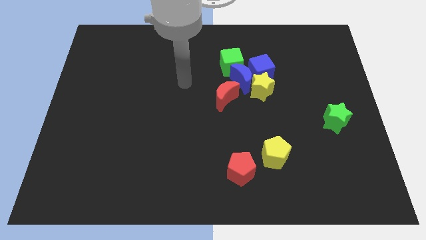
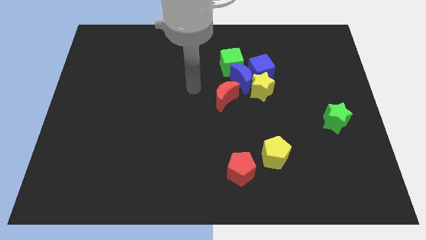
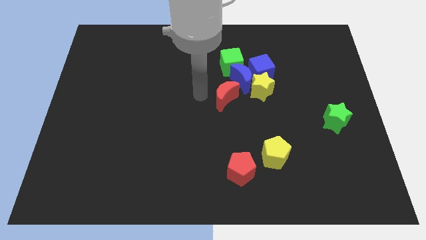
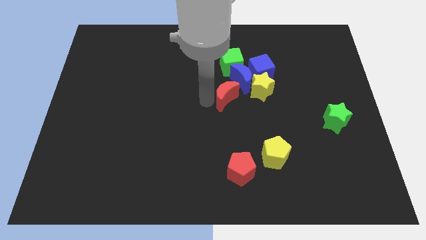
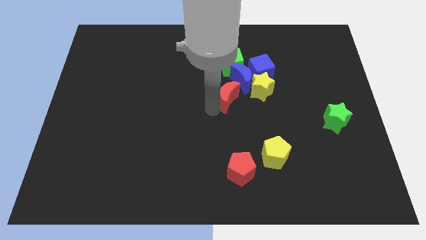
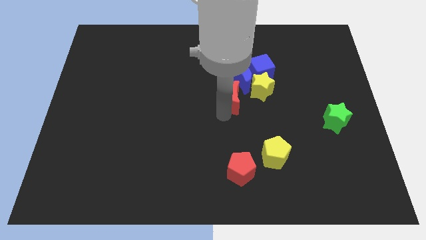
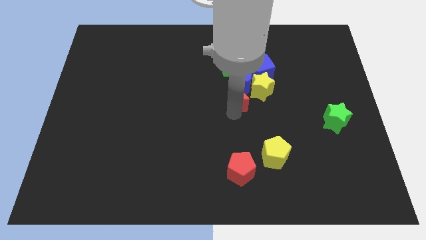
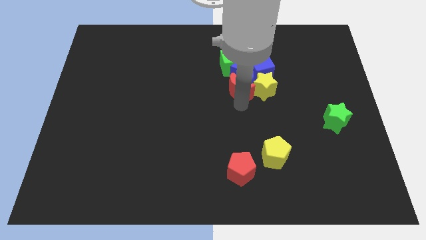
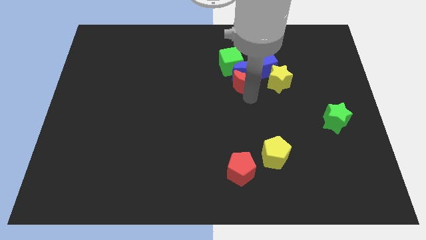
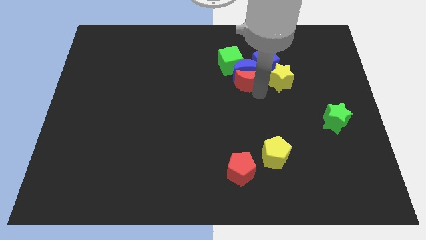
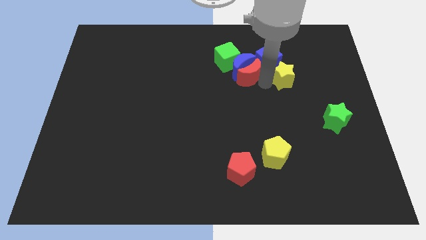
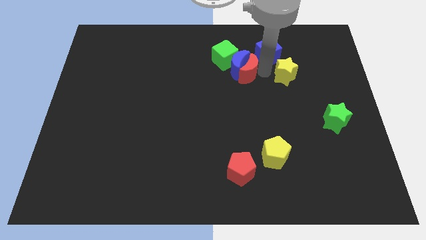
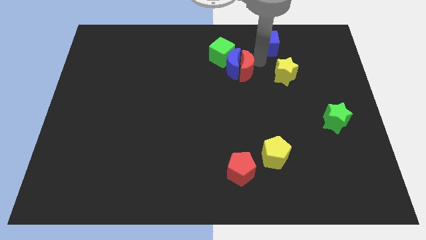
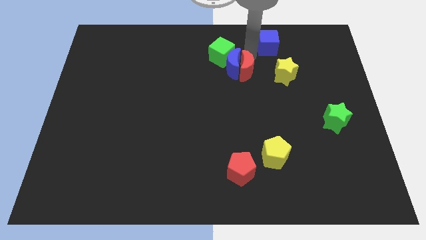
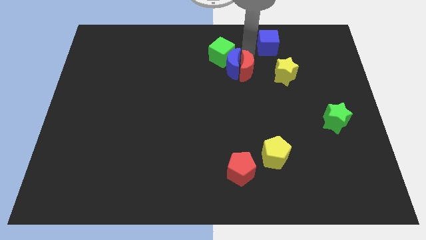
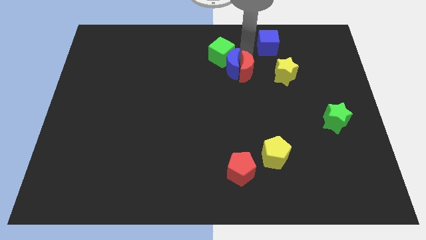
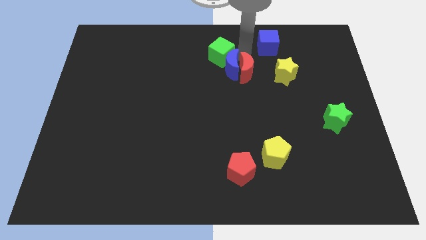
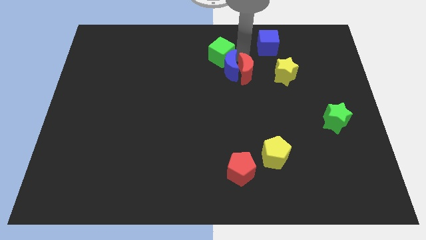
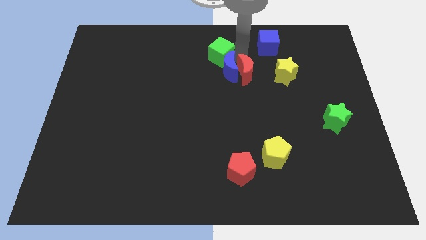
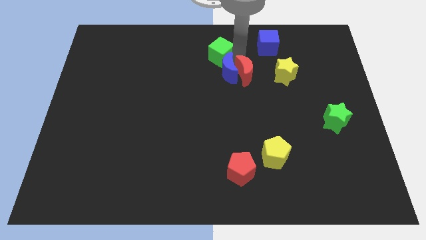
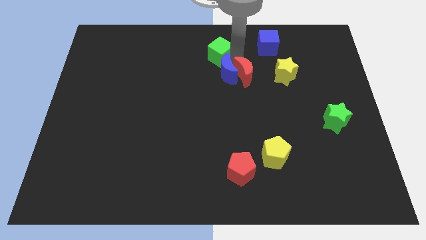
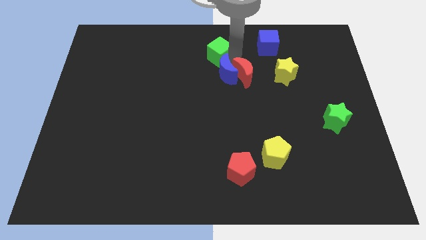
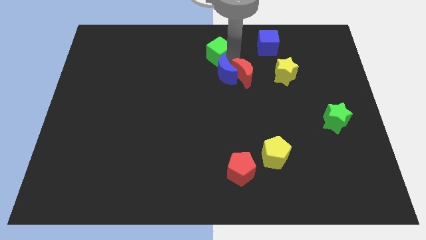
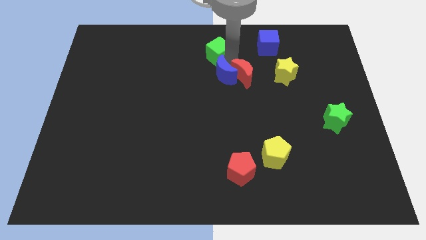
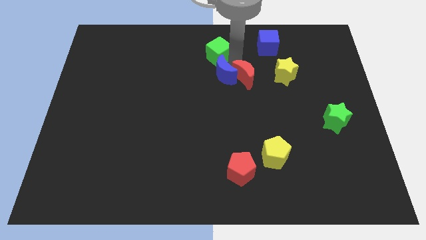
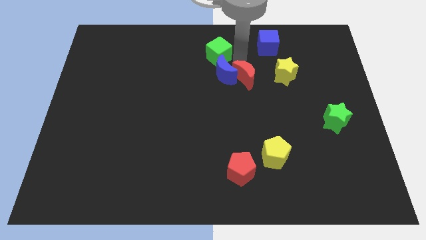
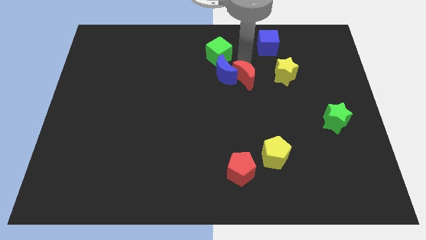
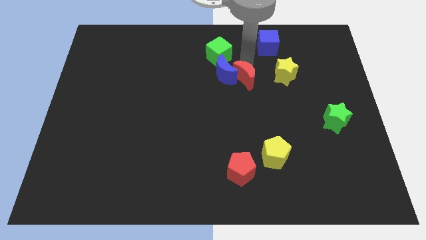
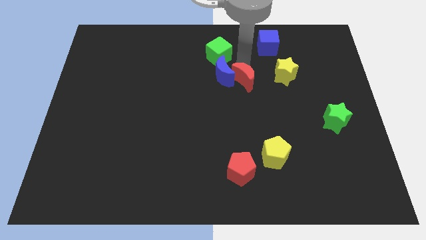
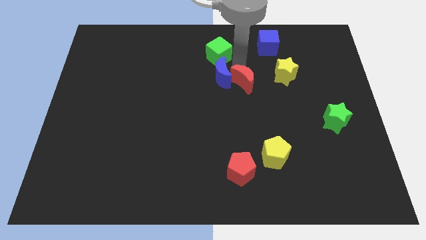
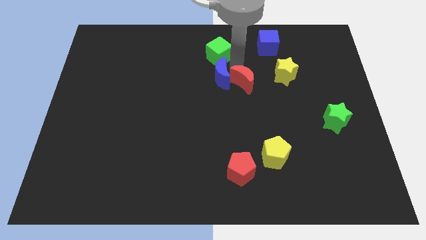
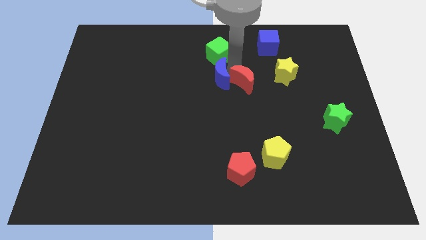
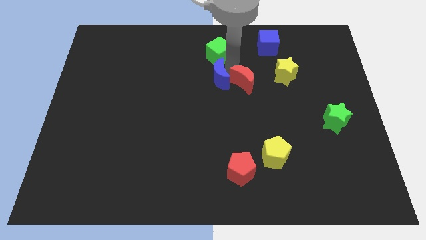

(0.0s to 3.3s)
move the blue moon away from the clump

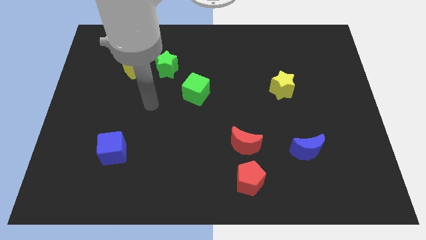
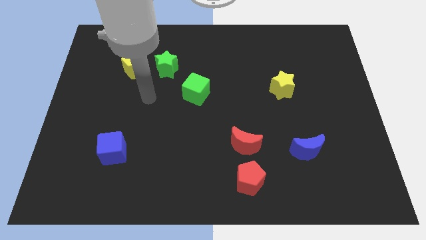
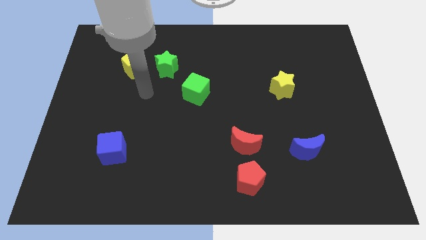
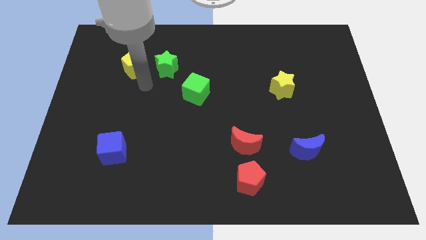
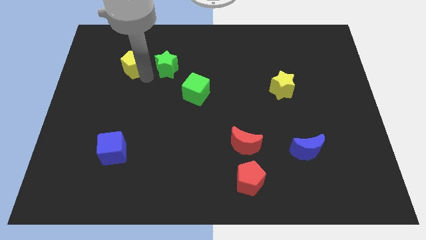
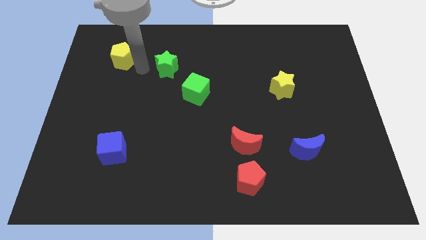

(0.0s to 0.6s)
pull the green star apart from the yellow pentagon

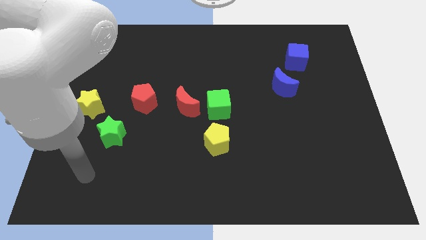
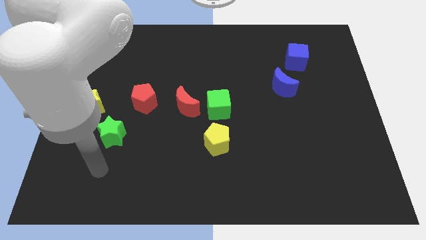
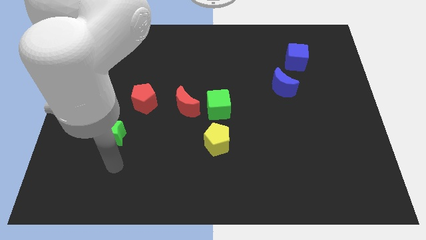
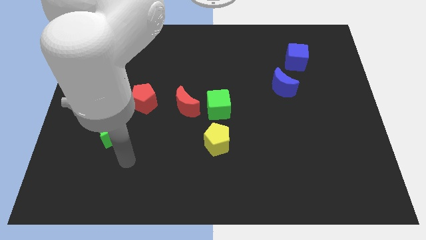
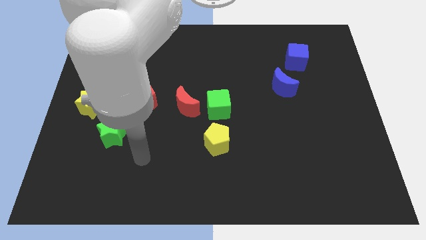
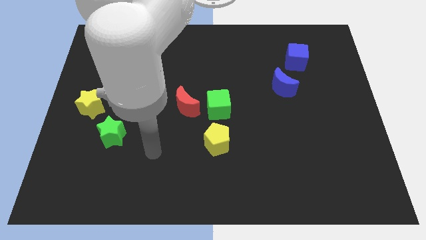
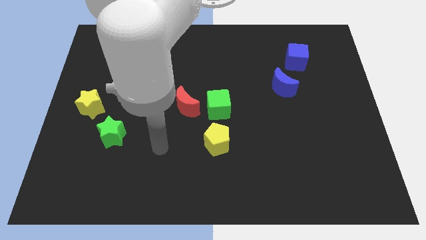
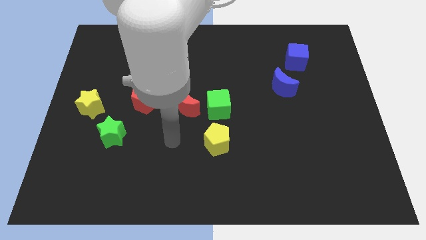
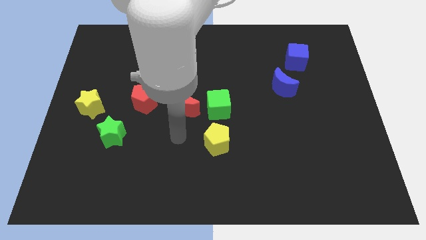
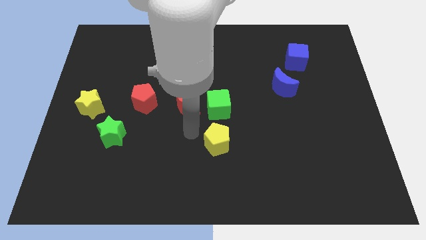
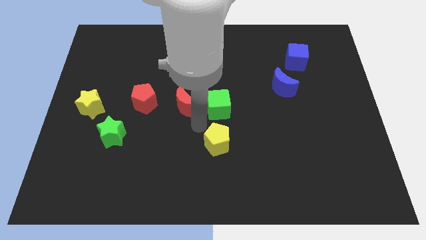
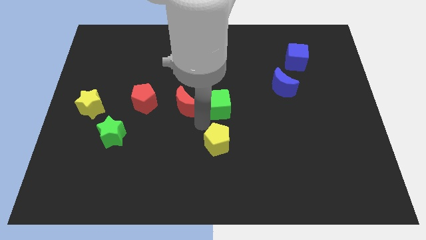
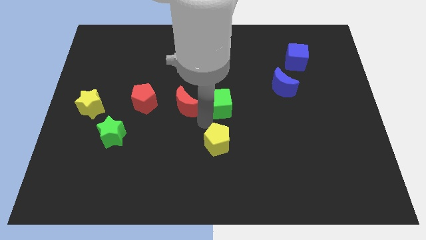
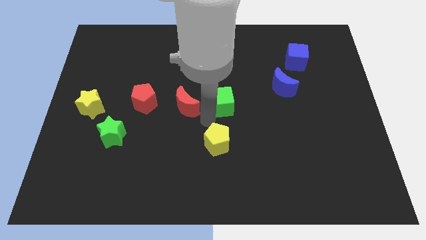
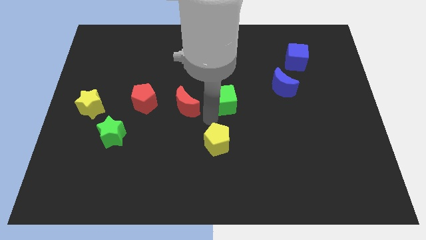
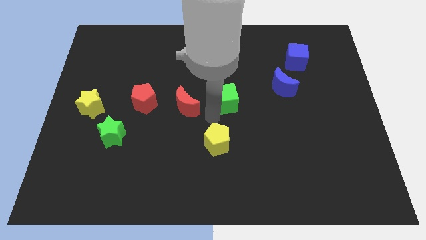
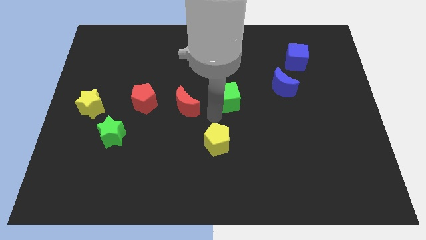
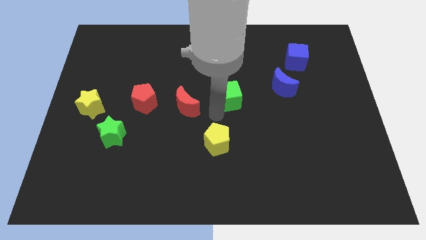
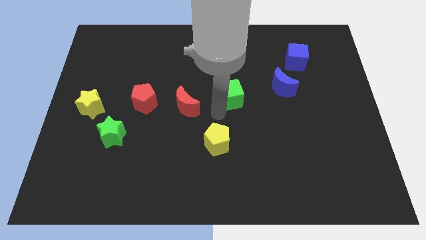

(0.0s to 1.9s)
pull the green cube apart from the red moon and yellow pentagon

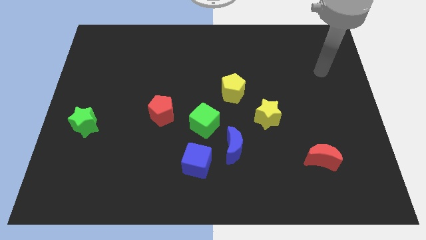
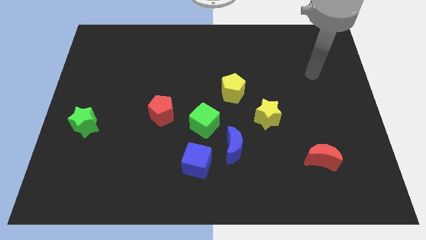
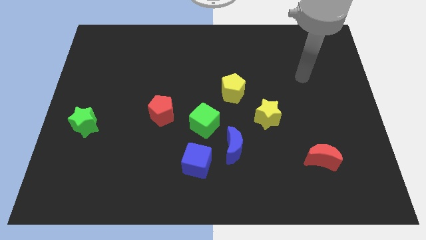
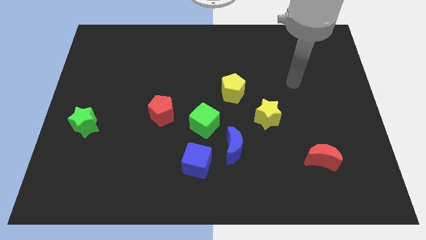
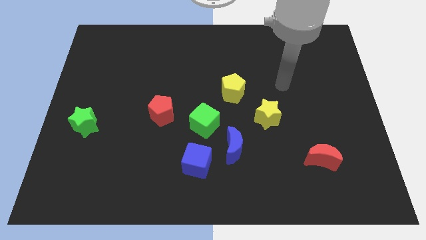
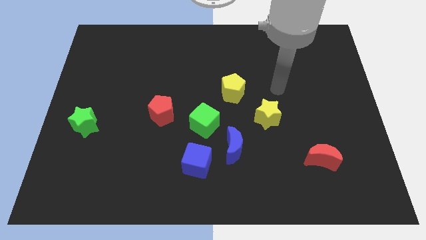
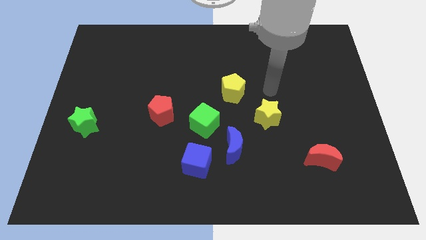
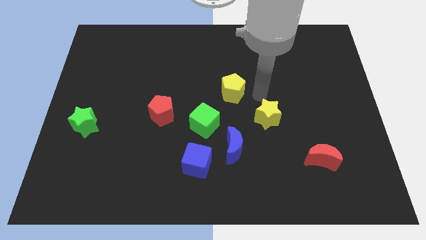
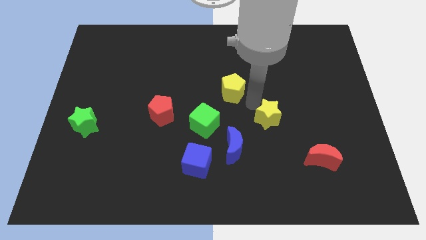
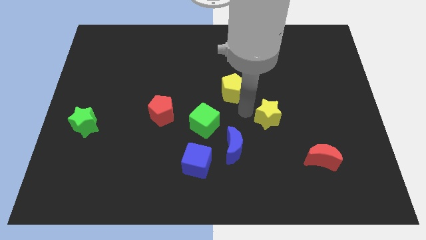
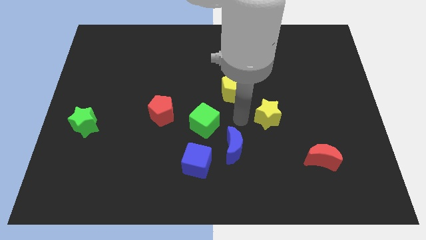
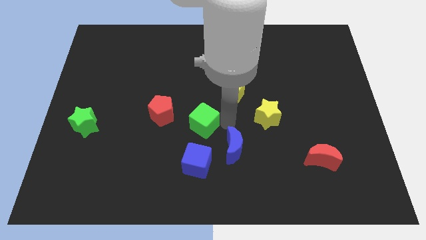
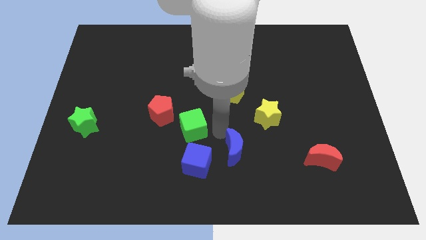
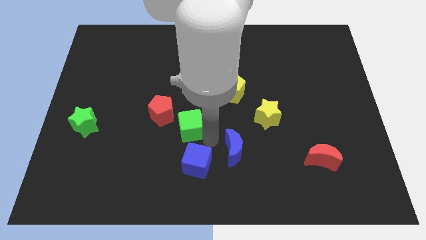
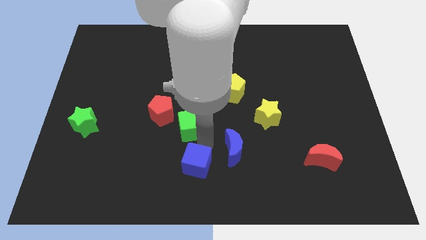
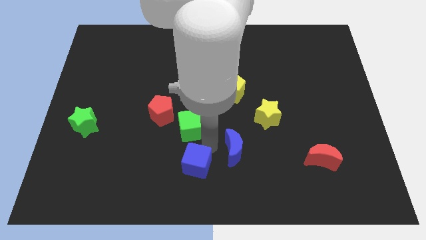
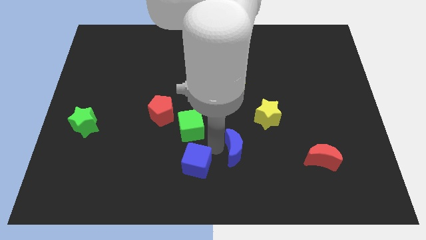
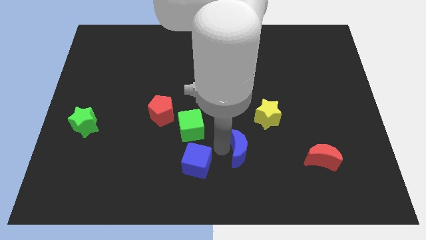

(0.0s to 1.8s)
move the blue moon away from the blue cube and green cube

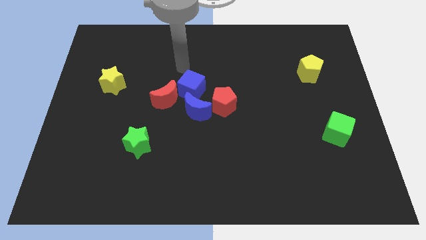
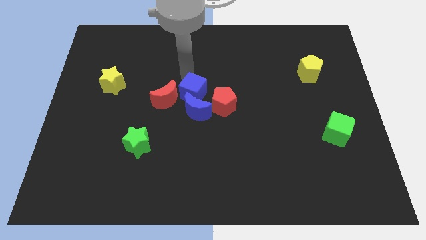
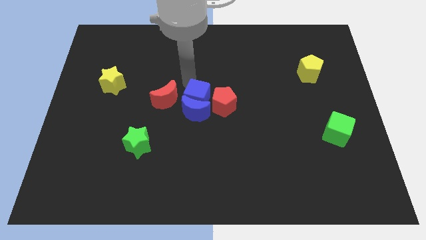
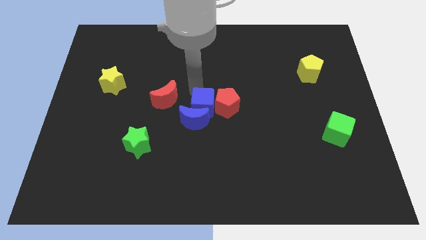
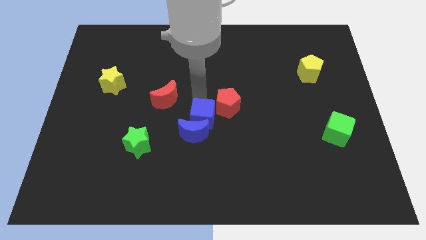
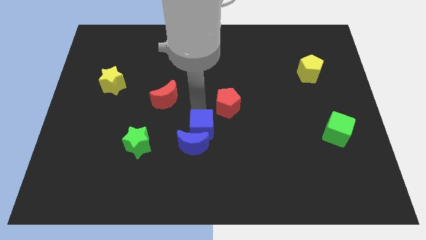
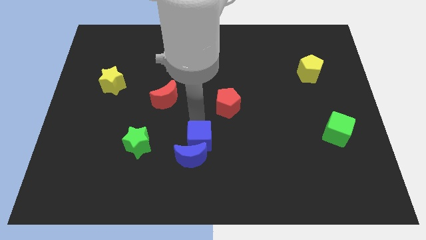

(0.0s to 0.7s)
move the blue moon away from the red pentagon, blue cube, and red moon

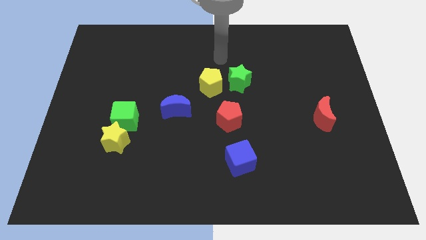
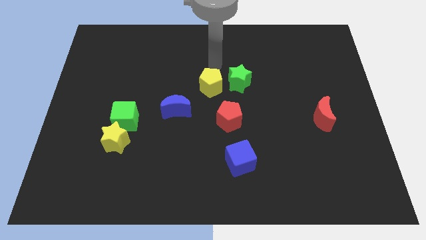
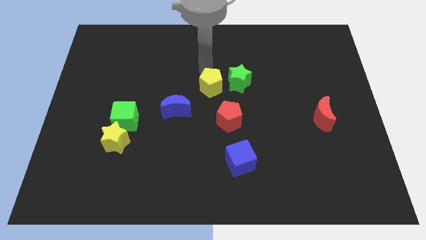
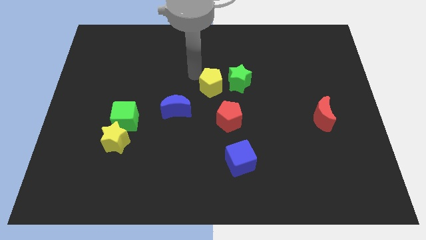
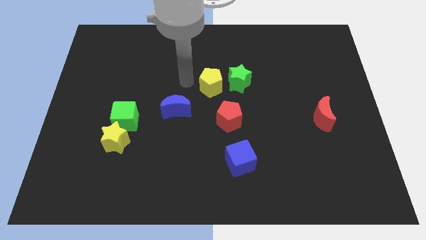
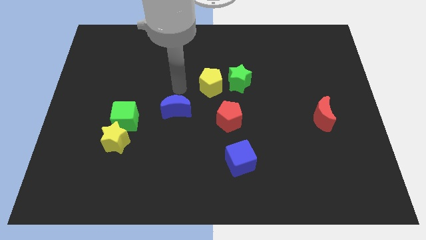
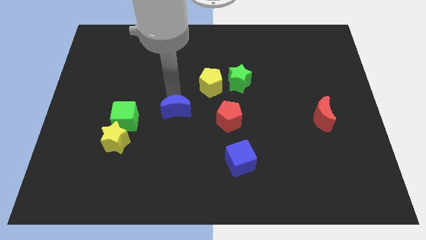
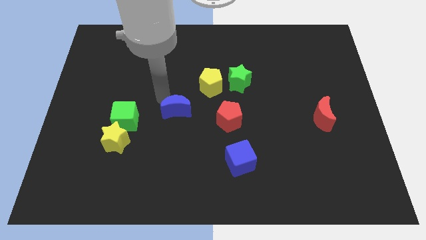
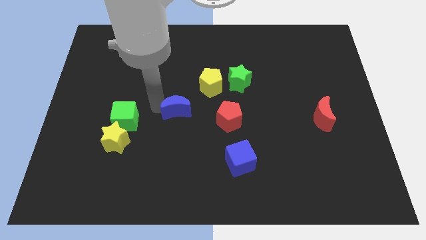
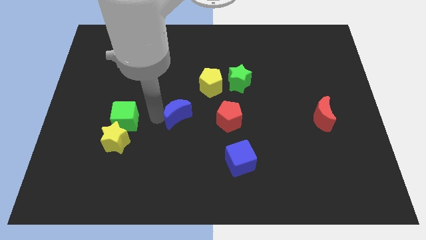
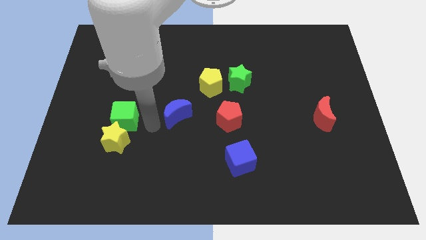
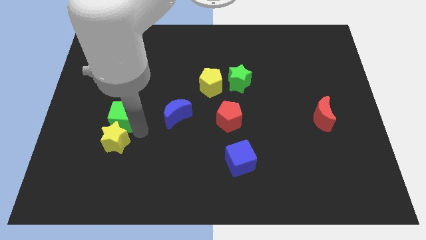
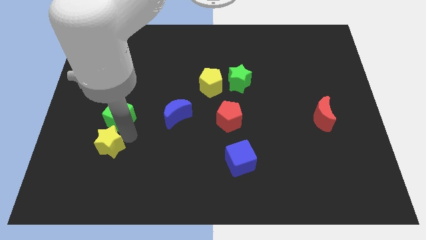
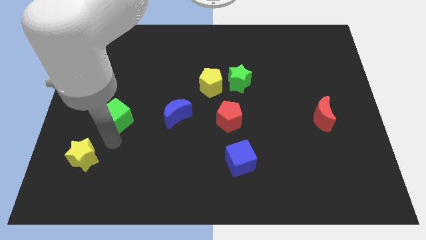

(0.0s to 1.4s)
move the green cube away from the yellow star
